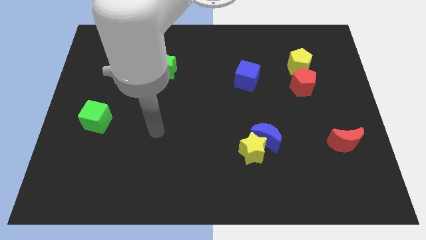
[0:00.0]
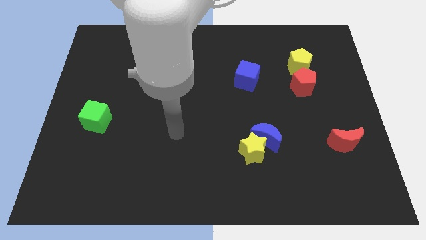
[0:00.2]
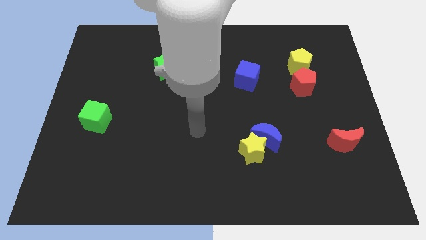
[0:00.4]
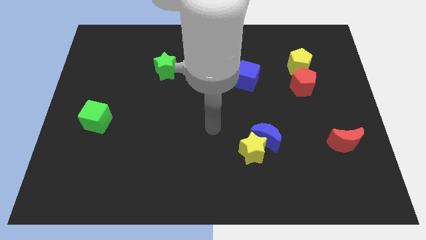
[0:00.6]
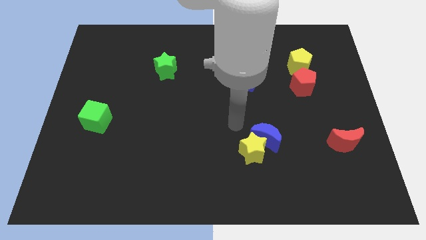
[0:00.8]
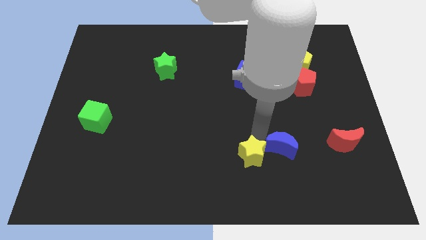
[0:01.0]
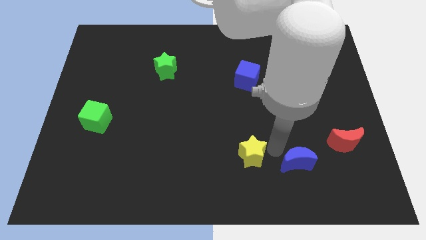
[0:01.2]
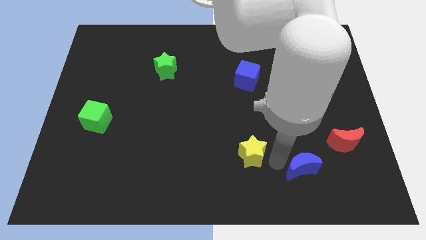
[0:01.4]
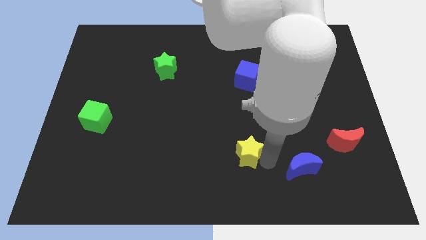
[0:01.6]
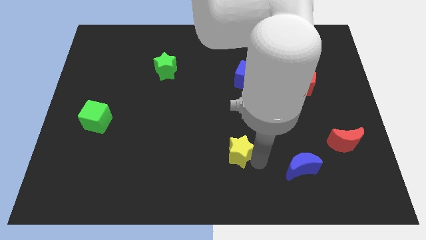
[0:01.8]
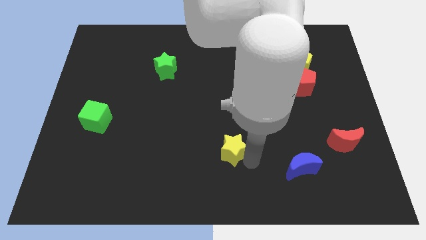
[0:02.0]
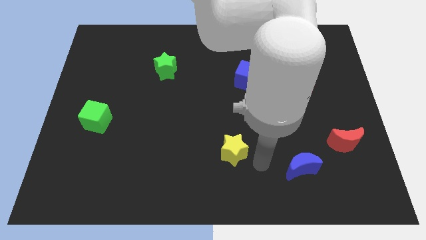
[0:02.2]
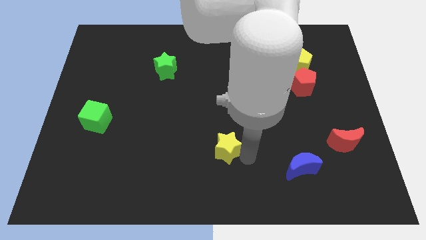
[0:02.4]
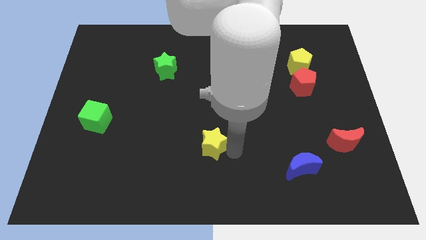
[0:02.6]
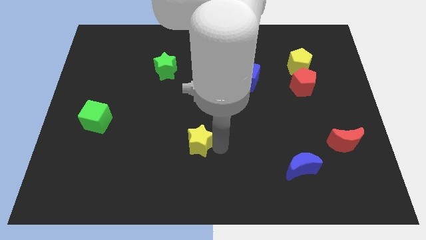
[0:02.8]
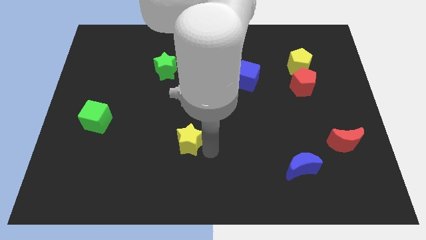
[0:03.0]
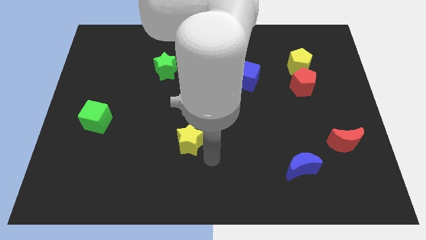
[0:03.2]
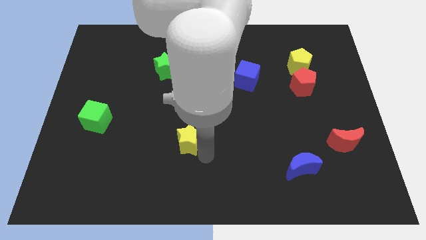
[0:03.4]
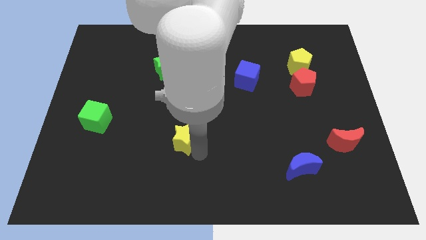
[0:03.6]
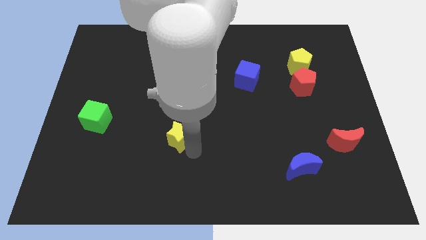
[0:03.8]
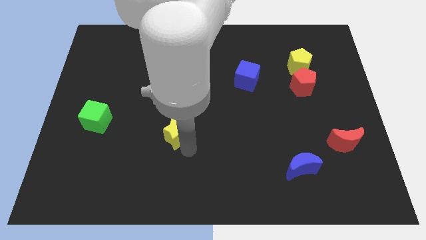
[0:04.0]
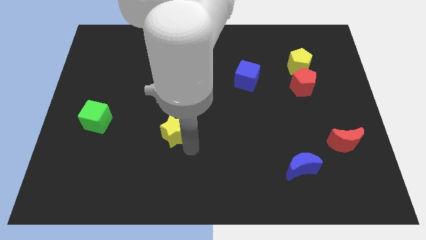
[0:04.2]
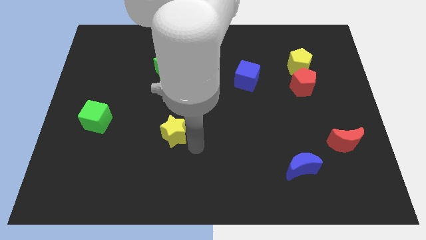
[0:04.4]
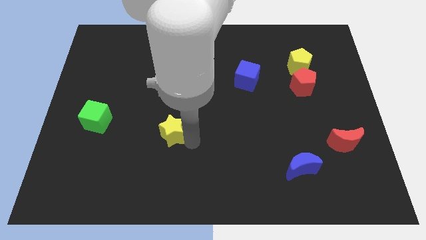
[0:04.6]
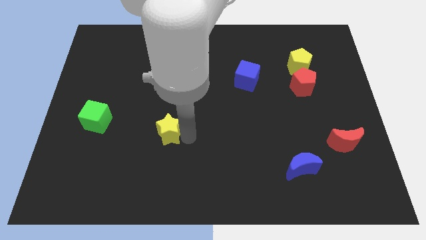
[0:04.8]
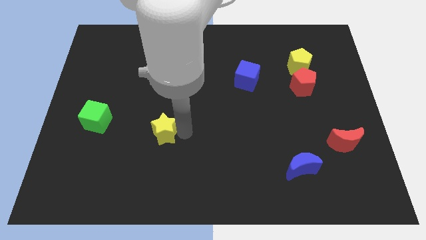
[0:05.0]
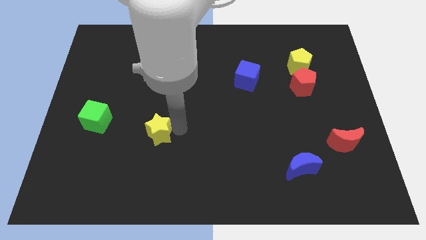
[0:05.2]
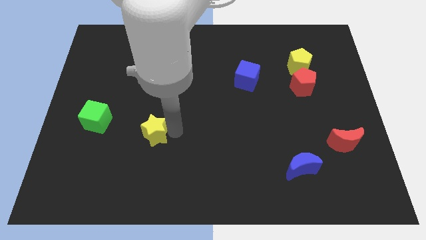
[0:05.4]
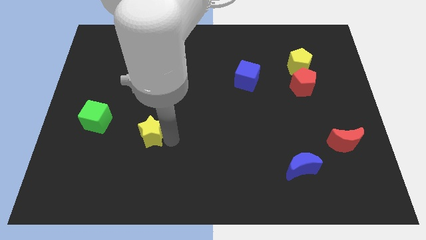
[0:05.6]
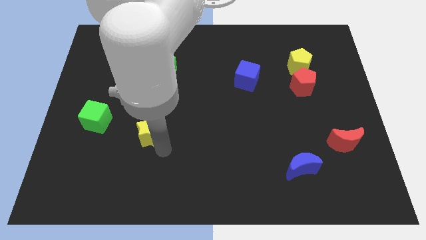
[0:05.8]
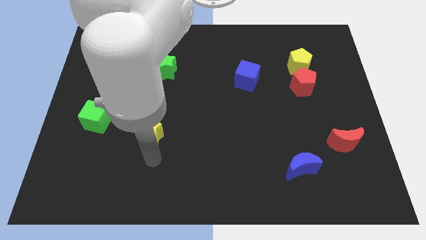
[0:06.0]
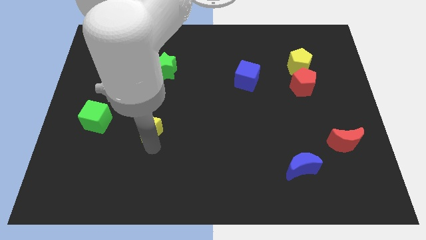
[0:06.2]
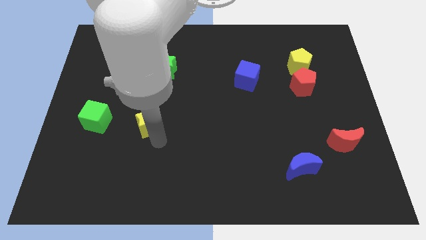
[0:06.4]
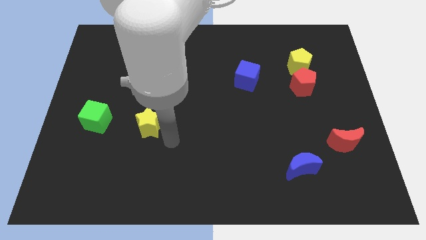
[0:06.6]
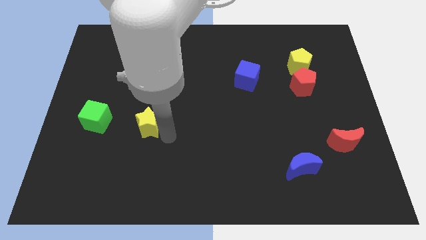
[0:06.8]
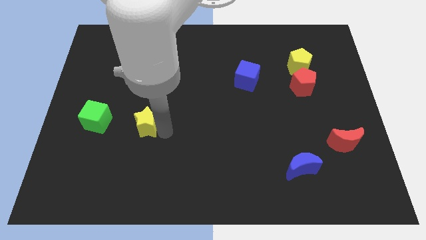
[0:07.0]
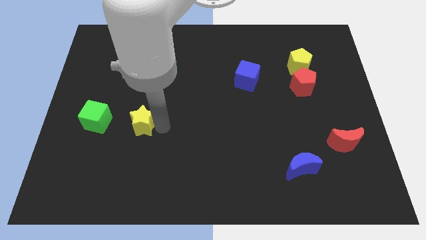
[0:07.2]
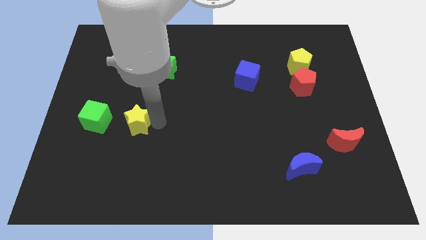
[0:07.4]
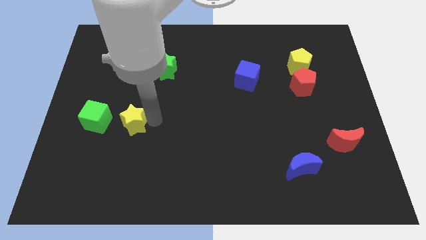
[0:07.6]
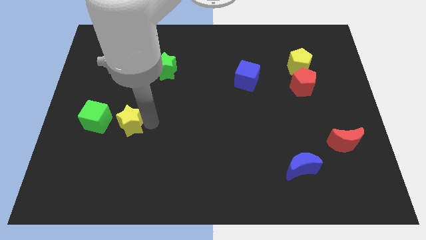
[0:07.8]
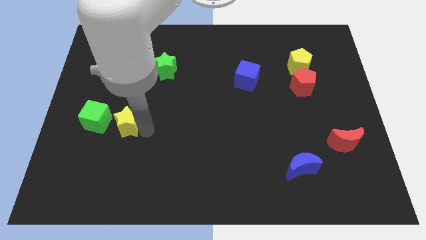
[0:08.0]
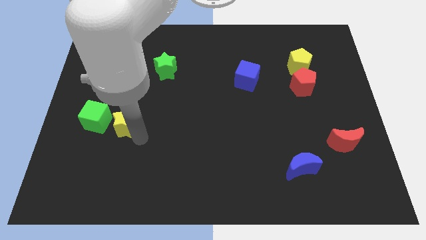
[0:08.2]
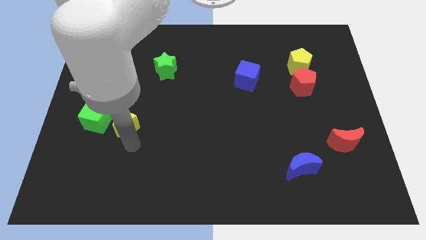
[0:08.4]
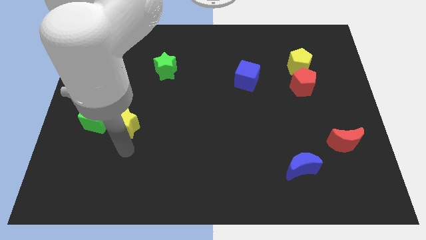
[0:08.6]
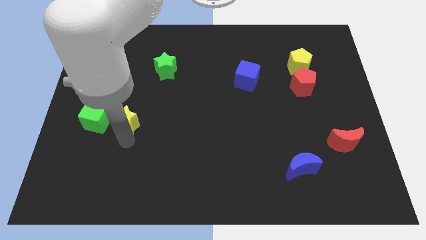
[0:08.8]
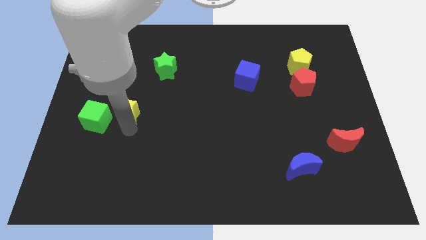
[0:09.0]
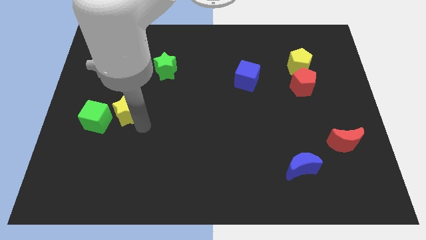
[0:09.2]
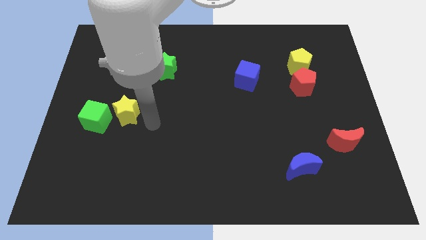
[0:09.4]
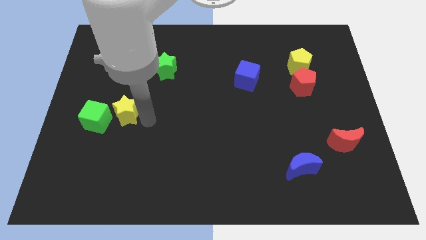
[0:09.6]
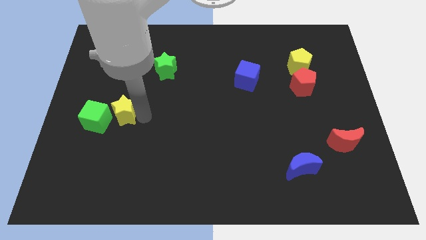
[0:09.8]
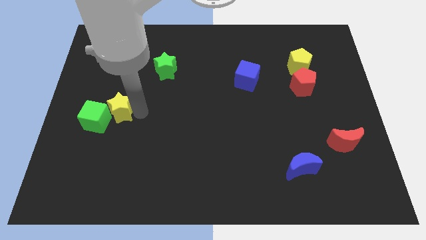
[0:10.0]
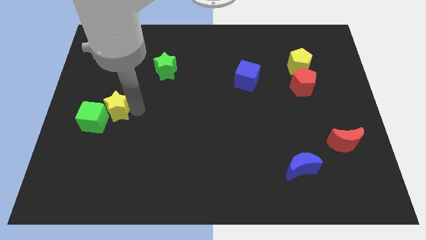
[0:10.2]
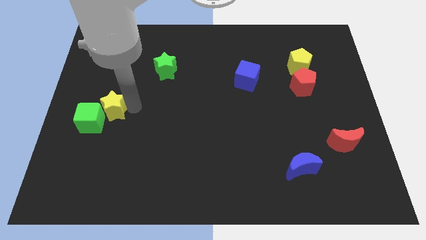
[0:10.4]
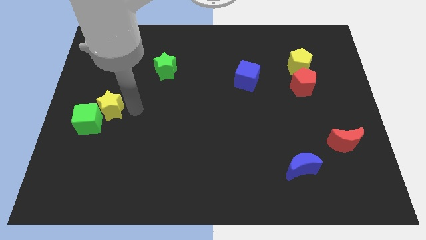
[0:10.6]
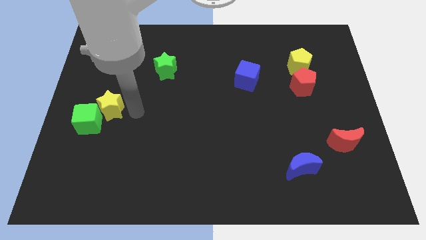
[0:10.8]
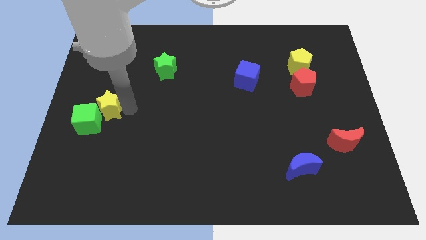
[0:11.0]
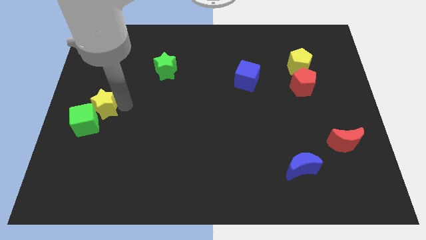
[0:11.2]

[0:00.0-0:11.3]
slide the yellow star to the left side of the board
